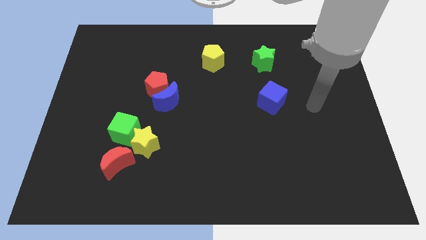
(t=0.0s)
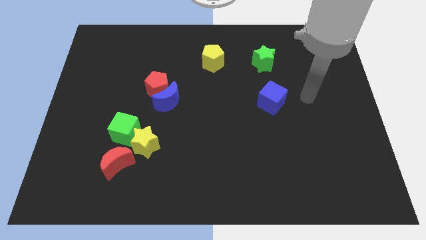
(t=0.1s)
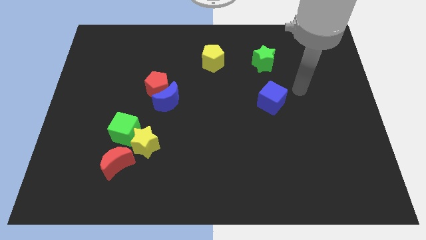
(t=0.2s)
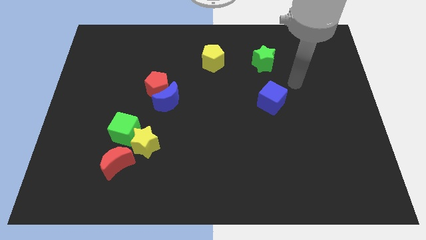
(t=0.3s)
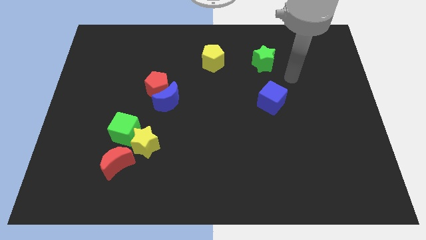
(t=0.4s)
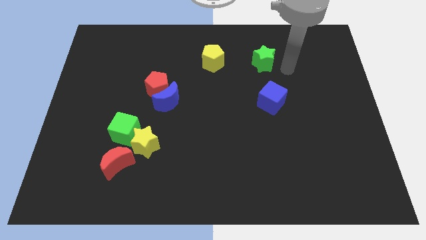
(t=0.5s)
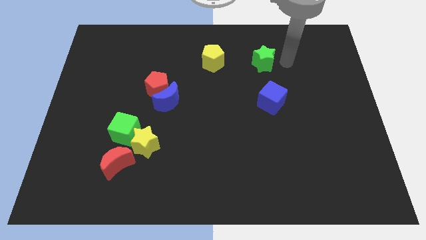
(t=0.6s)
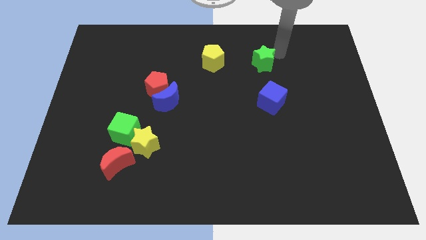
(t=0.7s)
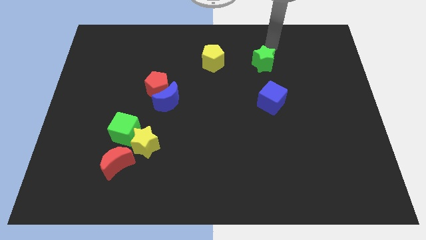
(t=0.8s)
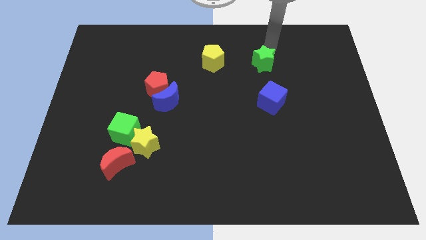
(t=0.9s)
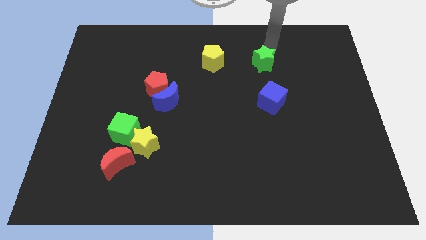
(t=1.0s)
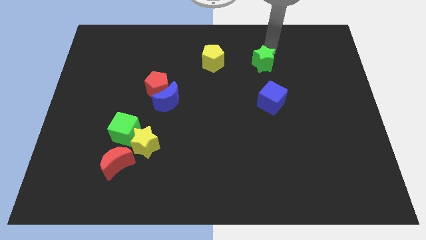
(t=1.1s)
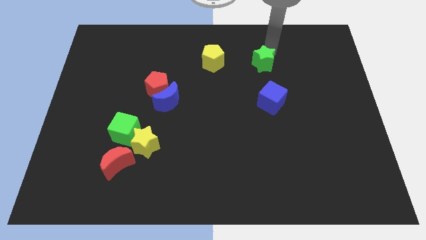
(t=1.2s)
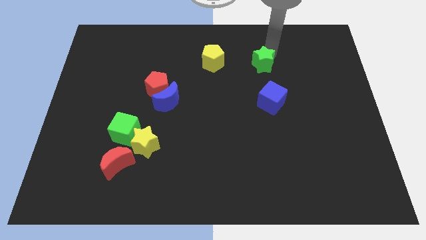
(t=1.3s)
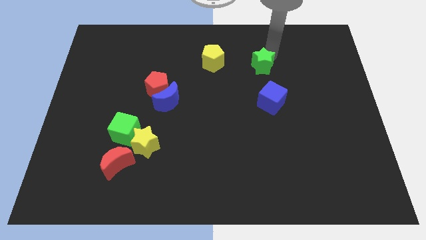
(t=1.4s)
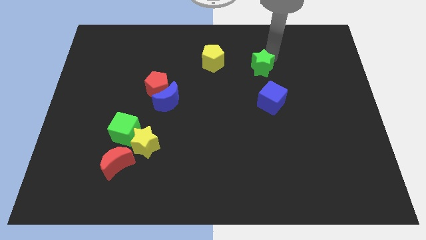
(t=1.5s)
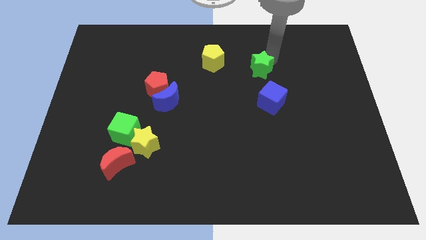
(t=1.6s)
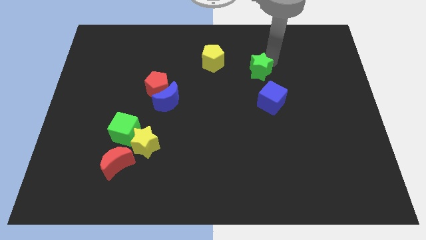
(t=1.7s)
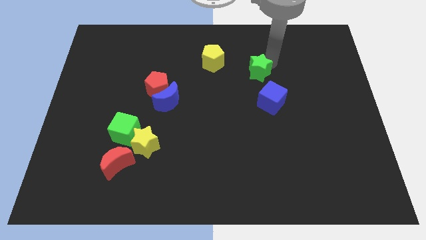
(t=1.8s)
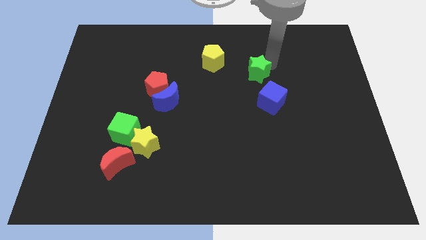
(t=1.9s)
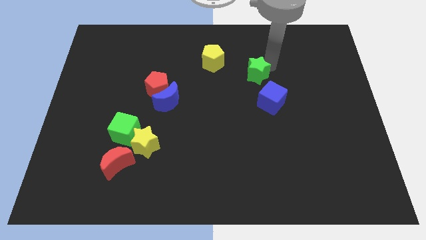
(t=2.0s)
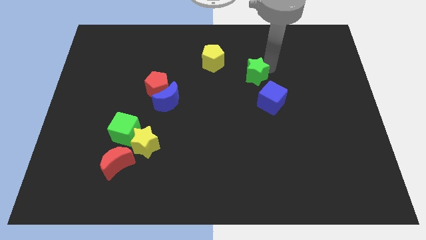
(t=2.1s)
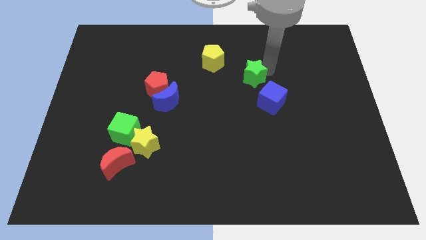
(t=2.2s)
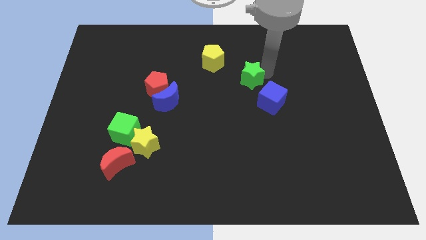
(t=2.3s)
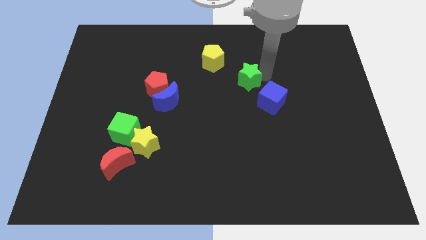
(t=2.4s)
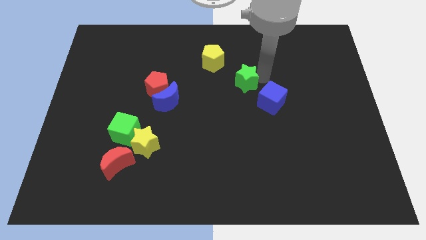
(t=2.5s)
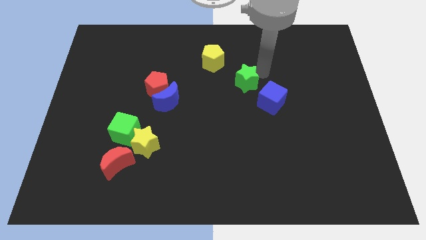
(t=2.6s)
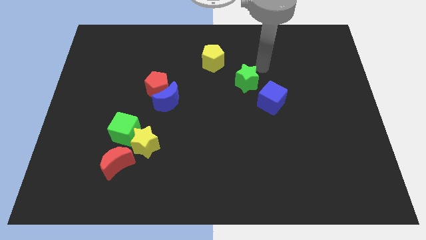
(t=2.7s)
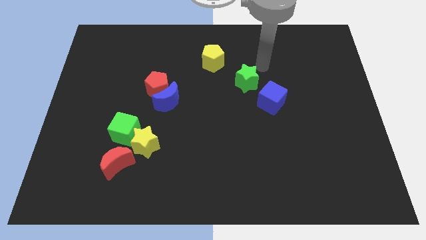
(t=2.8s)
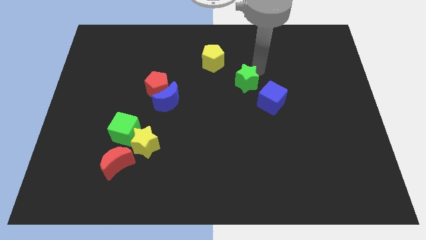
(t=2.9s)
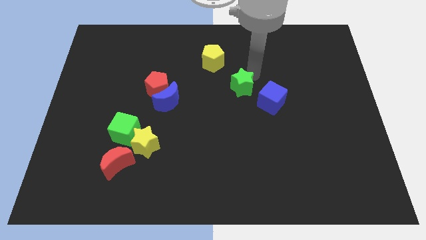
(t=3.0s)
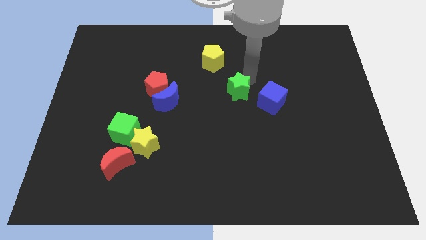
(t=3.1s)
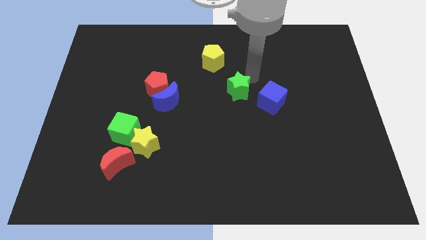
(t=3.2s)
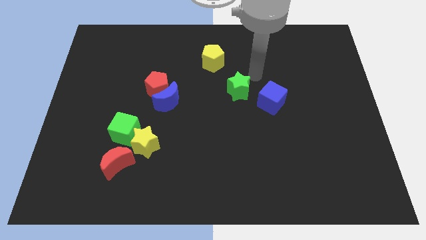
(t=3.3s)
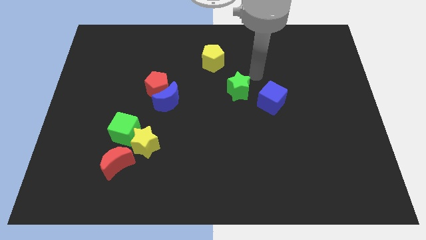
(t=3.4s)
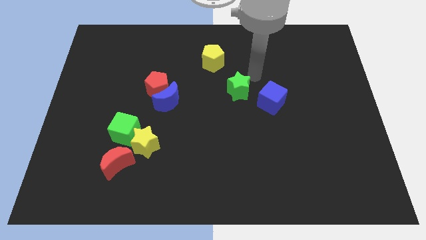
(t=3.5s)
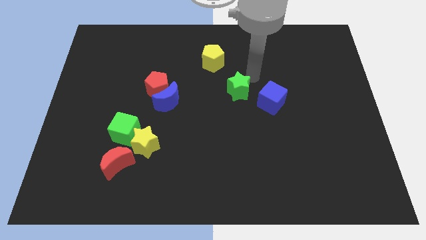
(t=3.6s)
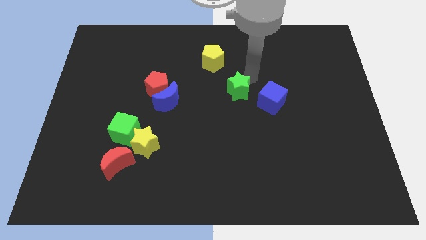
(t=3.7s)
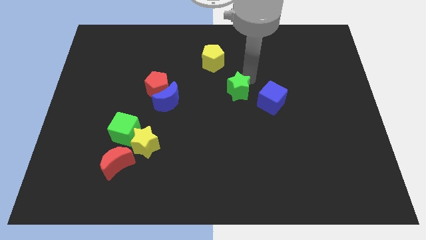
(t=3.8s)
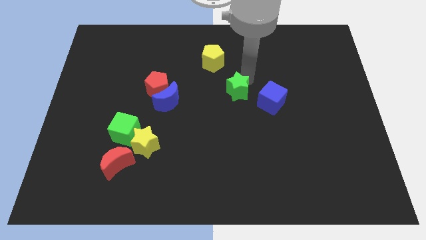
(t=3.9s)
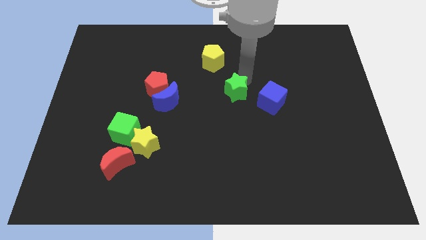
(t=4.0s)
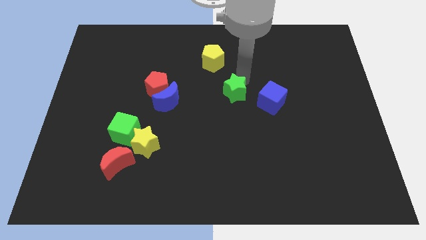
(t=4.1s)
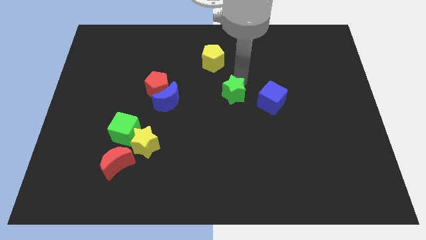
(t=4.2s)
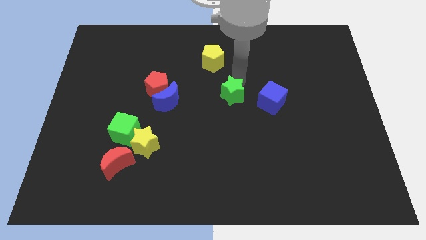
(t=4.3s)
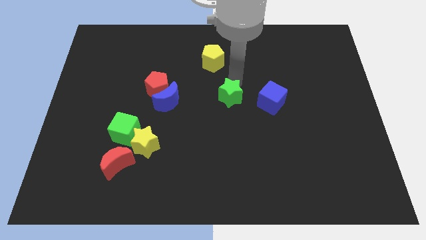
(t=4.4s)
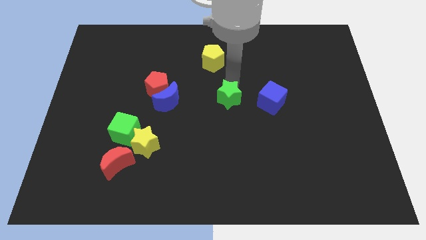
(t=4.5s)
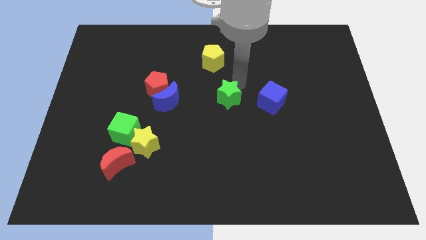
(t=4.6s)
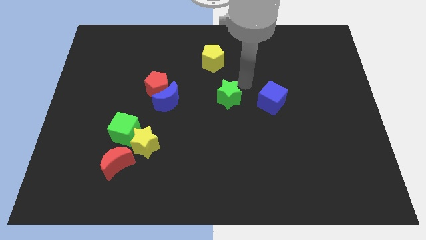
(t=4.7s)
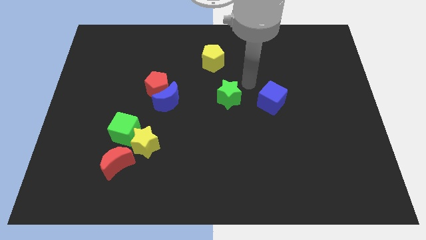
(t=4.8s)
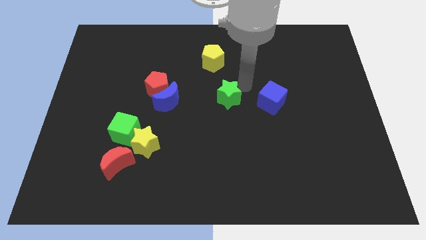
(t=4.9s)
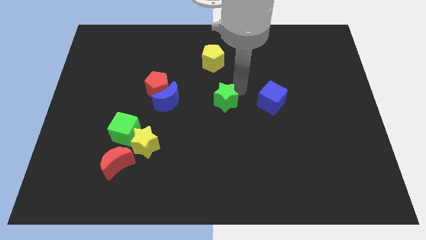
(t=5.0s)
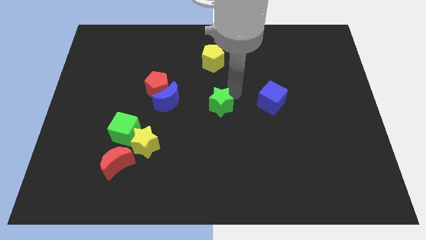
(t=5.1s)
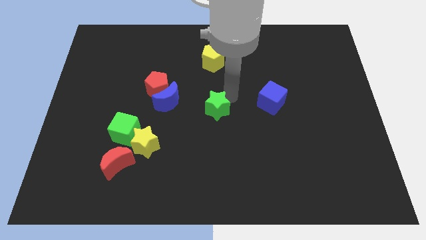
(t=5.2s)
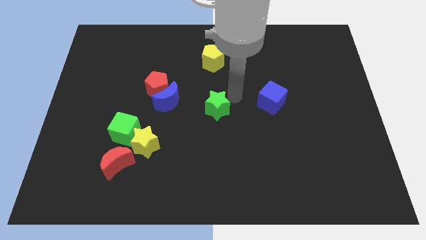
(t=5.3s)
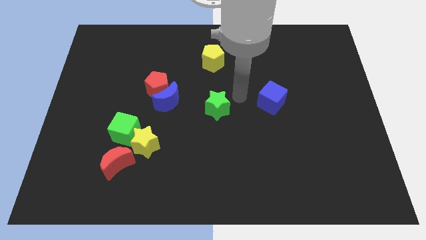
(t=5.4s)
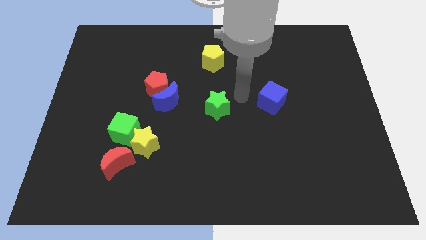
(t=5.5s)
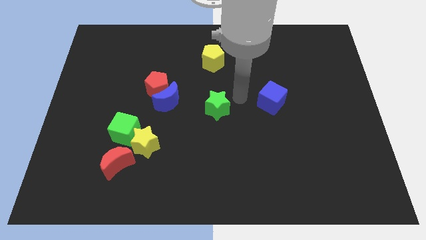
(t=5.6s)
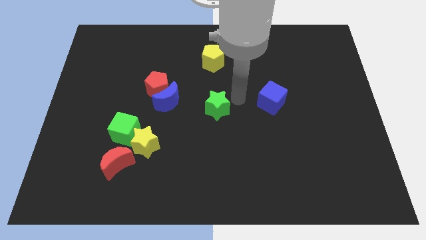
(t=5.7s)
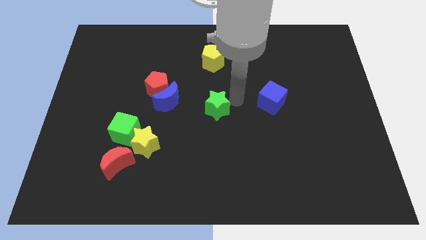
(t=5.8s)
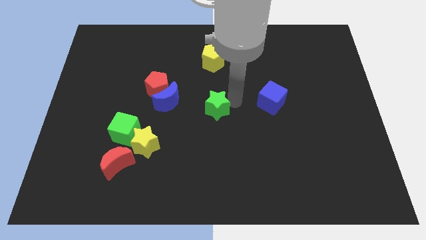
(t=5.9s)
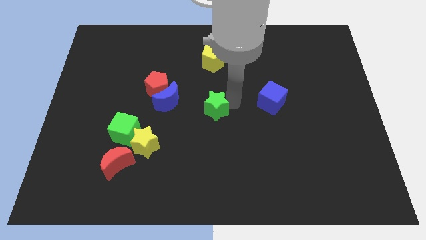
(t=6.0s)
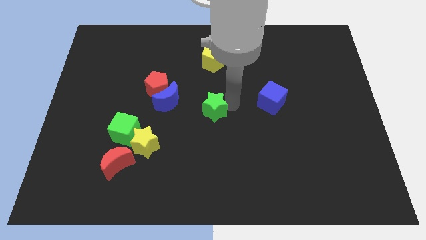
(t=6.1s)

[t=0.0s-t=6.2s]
move the green star down and to the left diagonally

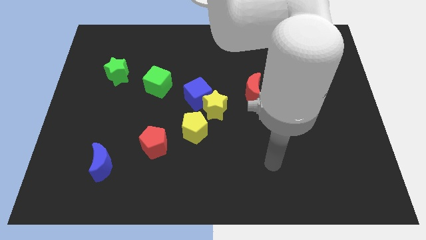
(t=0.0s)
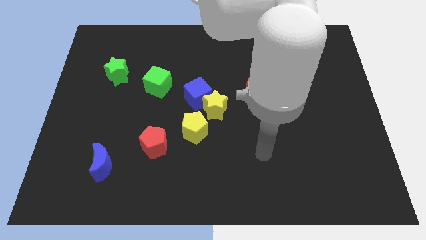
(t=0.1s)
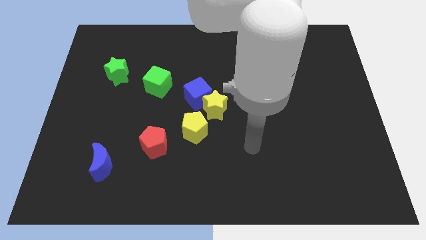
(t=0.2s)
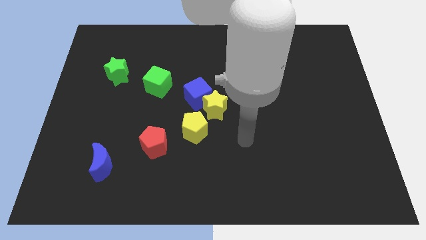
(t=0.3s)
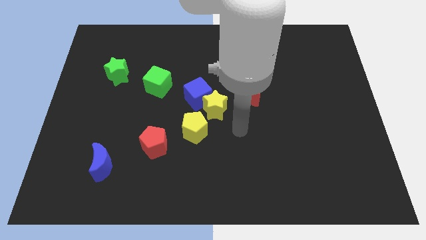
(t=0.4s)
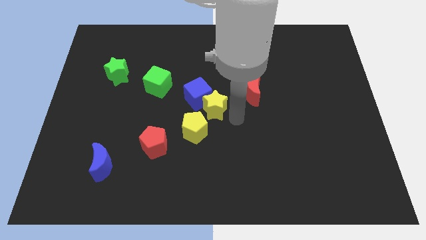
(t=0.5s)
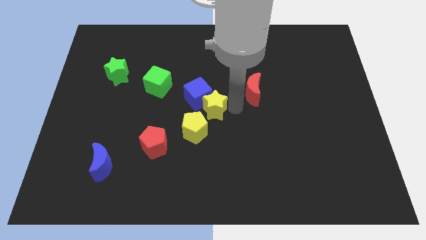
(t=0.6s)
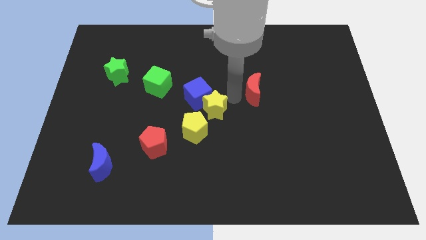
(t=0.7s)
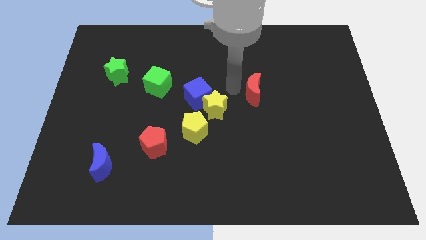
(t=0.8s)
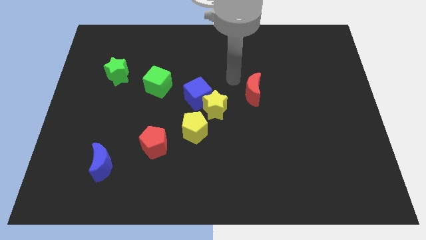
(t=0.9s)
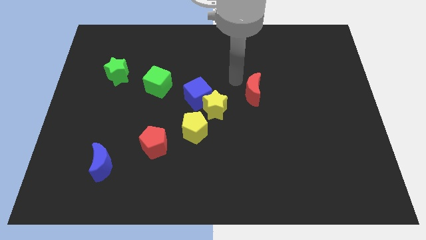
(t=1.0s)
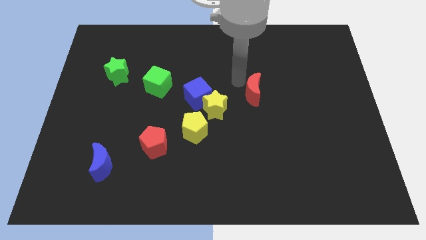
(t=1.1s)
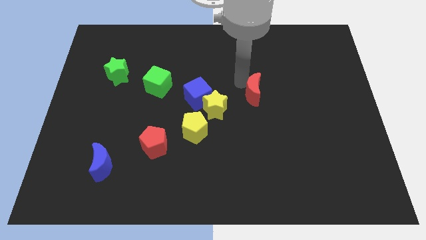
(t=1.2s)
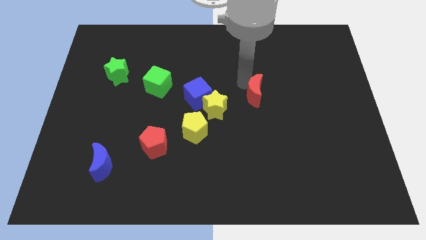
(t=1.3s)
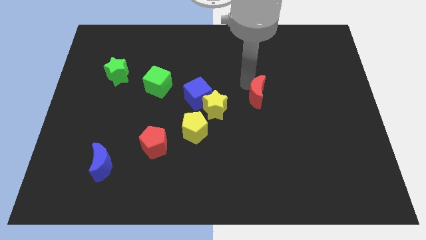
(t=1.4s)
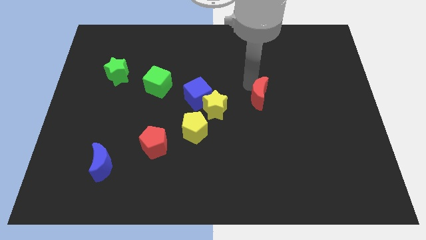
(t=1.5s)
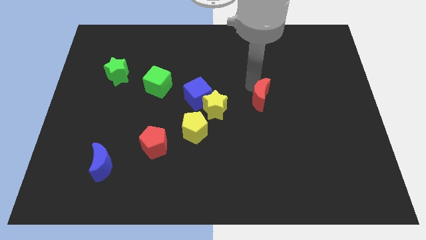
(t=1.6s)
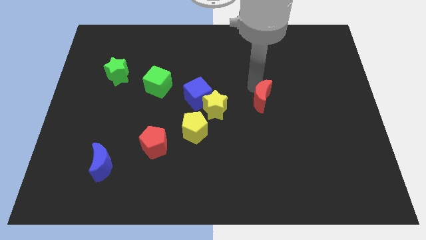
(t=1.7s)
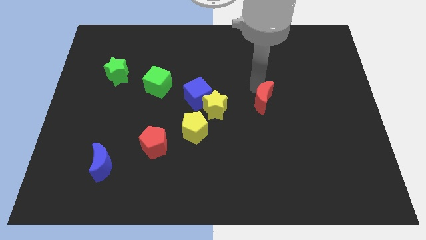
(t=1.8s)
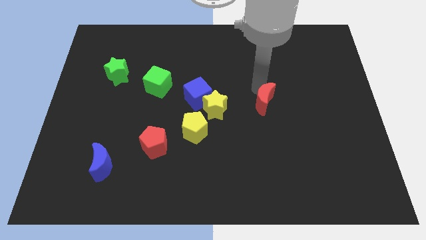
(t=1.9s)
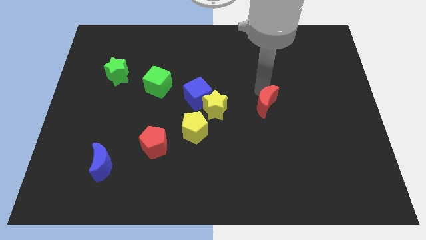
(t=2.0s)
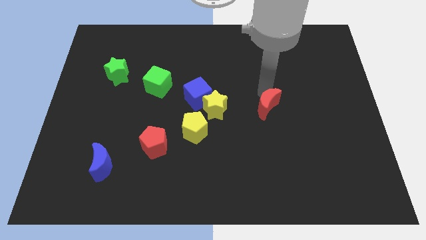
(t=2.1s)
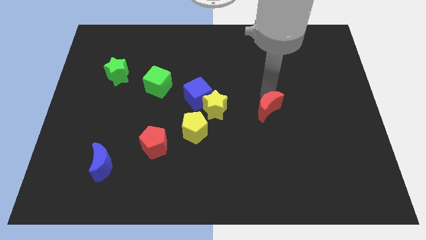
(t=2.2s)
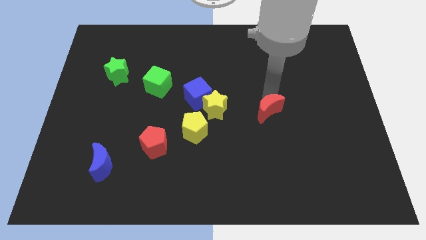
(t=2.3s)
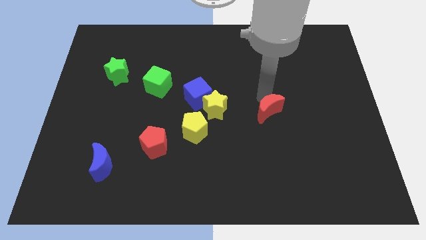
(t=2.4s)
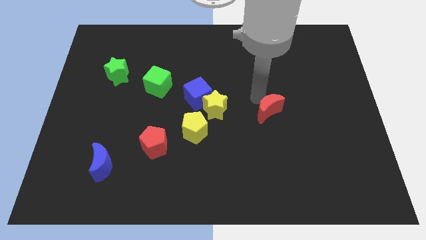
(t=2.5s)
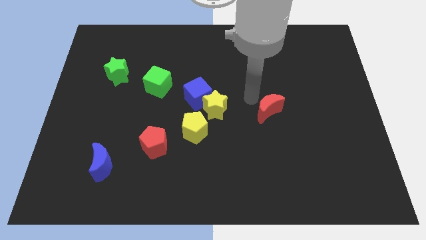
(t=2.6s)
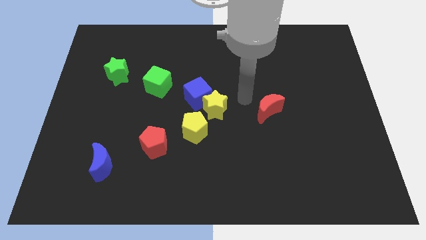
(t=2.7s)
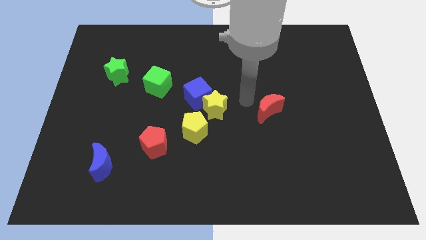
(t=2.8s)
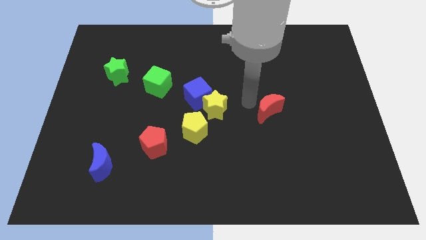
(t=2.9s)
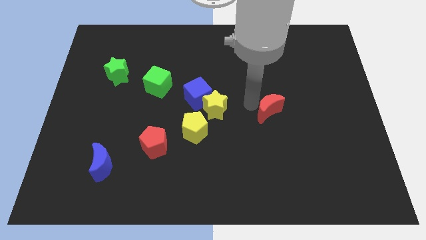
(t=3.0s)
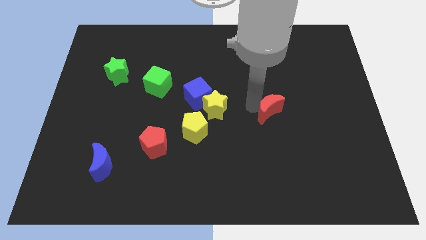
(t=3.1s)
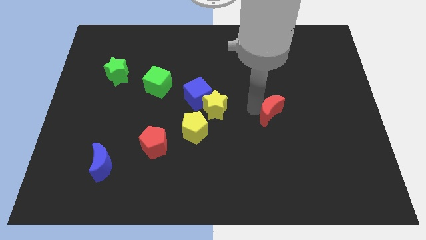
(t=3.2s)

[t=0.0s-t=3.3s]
move the red moon somewhat diagonally down and right
